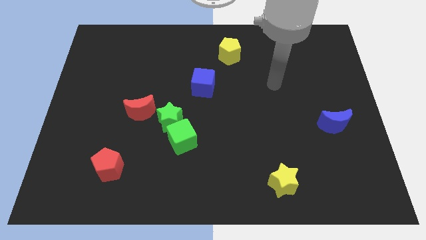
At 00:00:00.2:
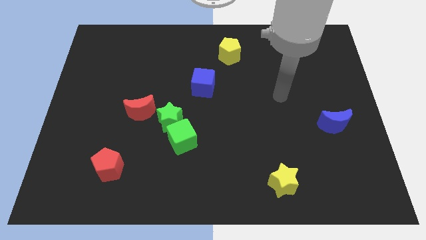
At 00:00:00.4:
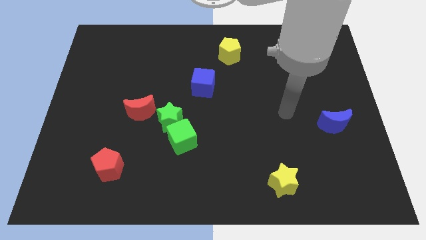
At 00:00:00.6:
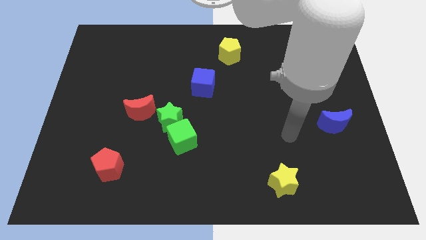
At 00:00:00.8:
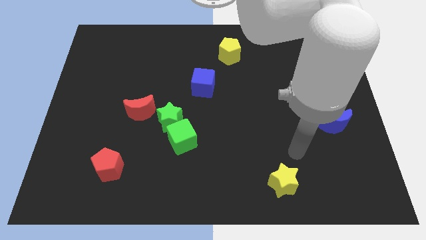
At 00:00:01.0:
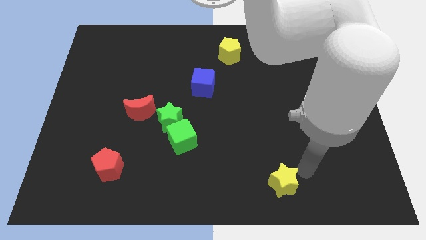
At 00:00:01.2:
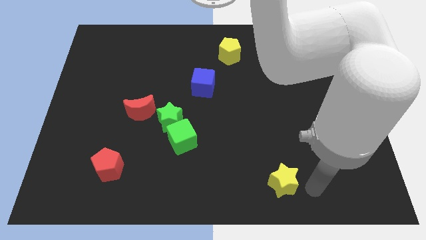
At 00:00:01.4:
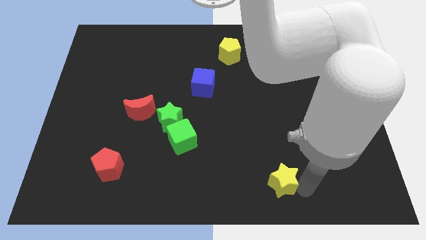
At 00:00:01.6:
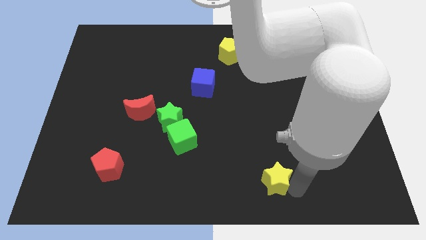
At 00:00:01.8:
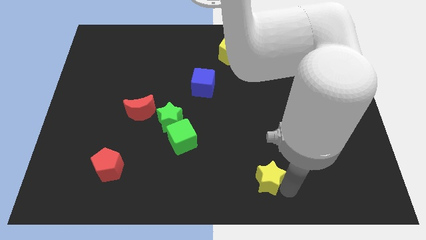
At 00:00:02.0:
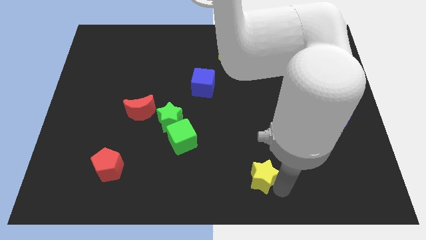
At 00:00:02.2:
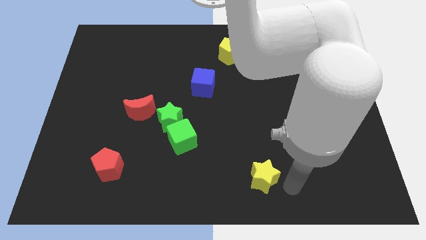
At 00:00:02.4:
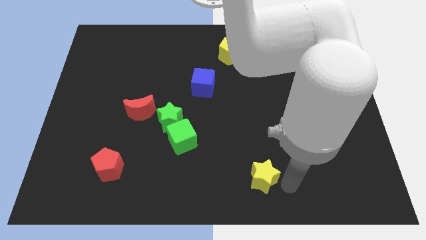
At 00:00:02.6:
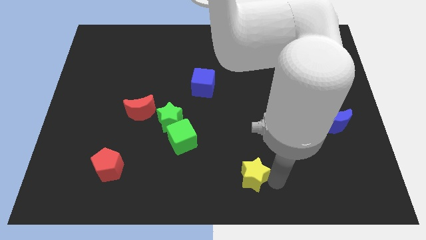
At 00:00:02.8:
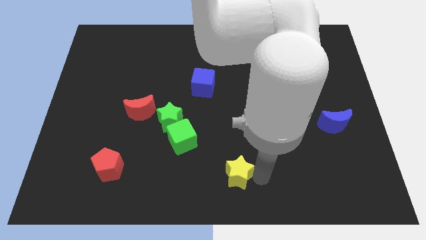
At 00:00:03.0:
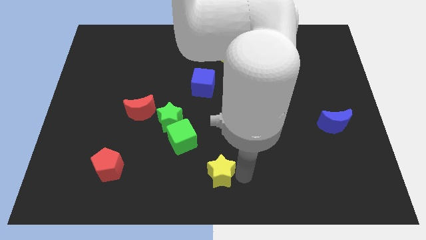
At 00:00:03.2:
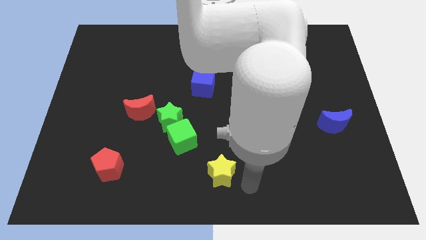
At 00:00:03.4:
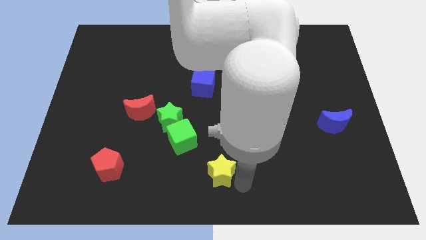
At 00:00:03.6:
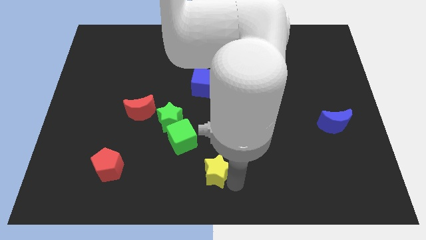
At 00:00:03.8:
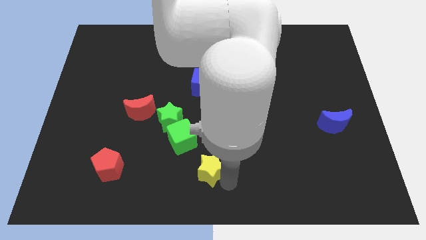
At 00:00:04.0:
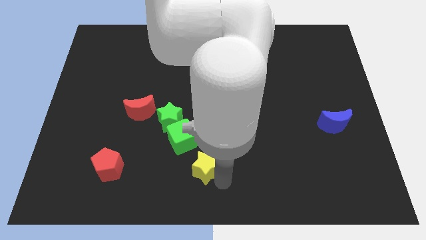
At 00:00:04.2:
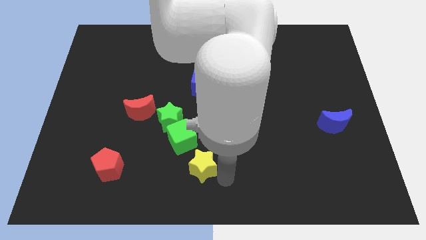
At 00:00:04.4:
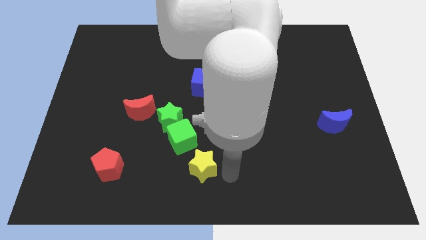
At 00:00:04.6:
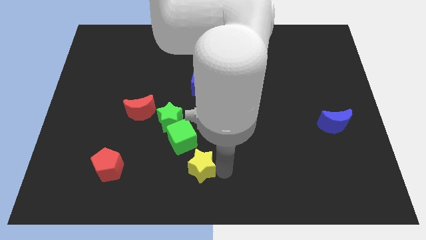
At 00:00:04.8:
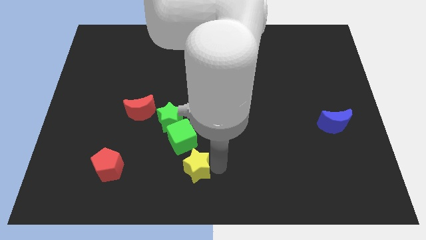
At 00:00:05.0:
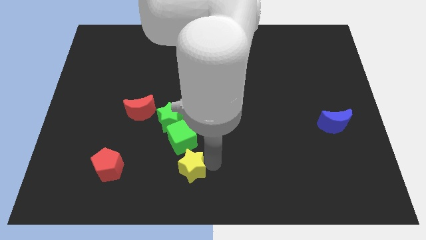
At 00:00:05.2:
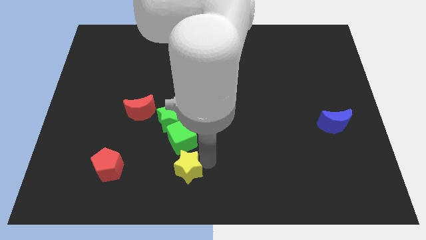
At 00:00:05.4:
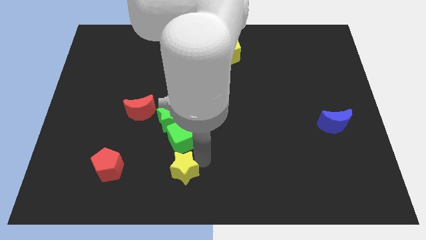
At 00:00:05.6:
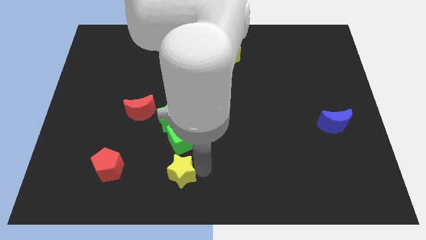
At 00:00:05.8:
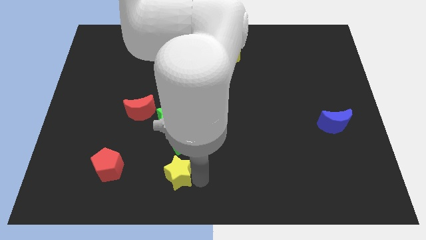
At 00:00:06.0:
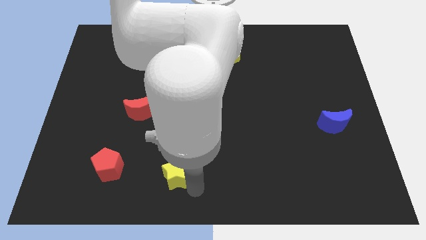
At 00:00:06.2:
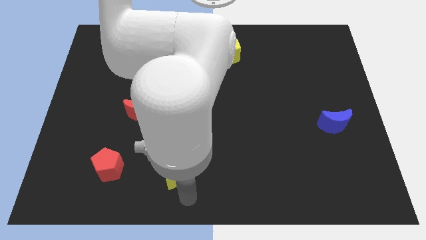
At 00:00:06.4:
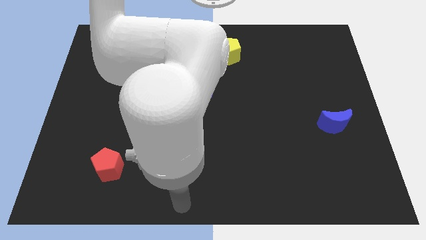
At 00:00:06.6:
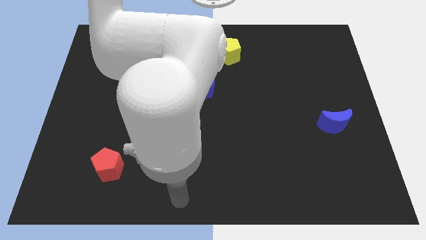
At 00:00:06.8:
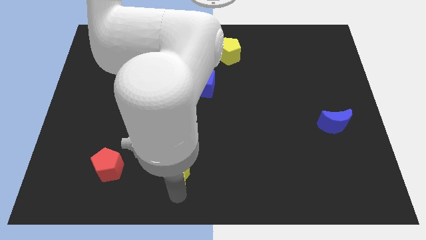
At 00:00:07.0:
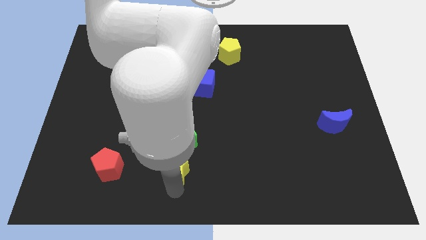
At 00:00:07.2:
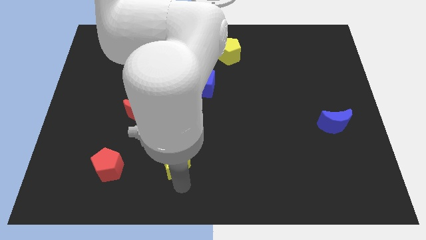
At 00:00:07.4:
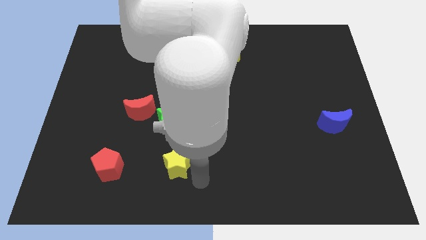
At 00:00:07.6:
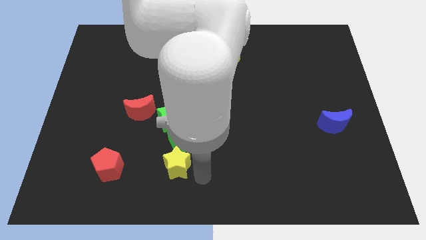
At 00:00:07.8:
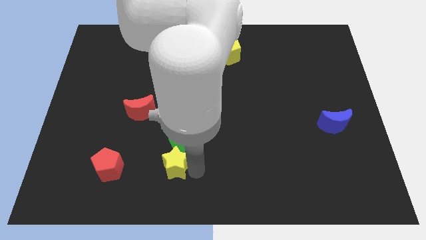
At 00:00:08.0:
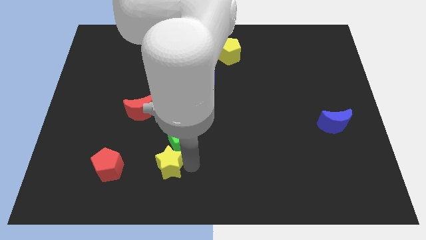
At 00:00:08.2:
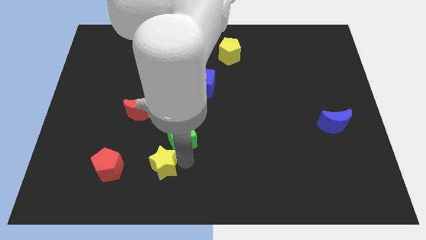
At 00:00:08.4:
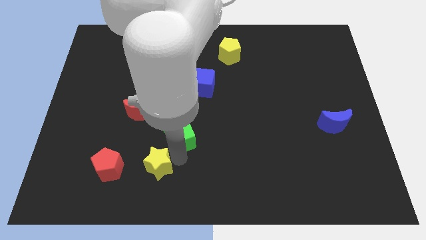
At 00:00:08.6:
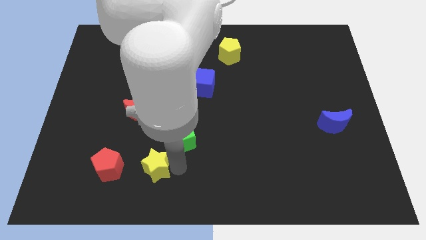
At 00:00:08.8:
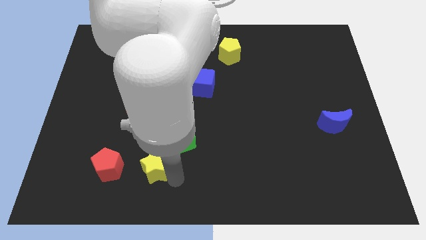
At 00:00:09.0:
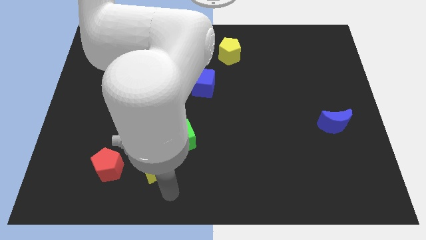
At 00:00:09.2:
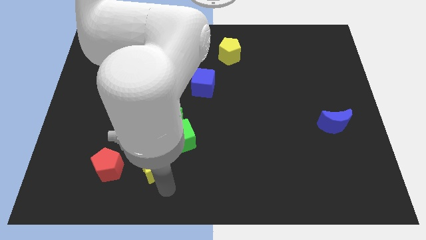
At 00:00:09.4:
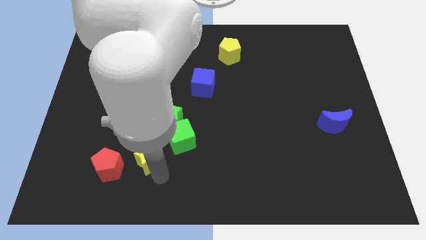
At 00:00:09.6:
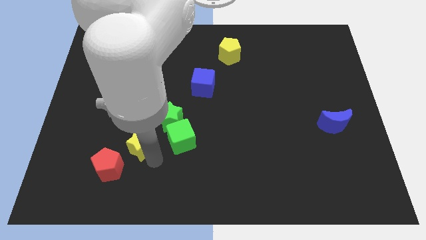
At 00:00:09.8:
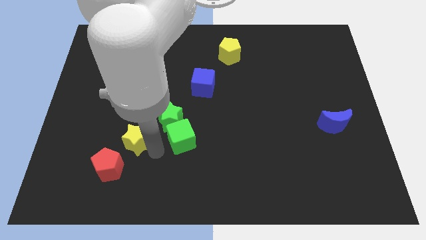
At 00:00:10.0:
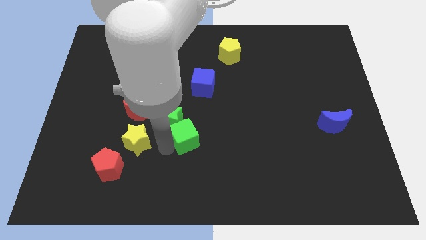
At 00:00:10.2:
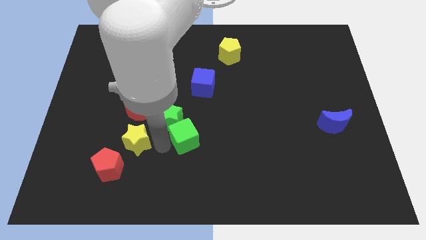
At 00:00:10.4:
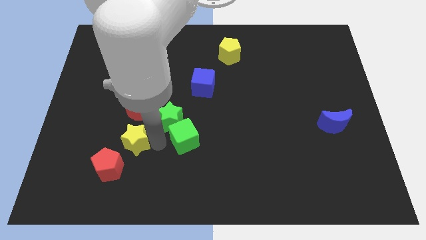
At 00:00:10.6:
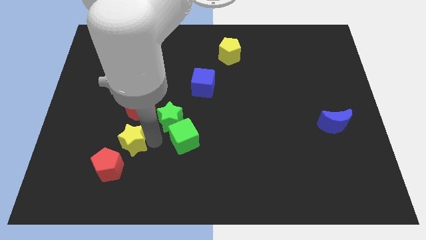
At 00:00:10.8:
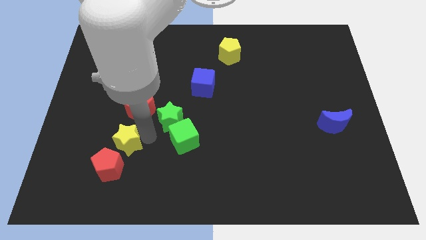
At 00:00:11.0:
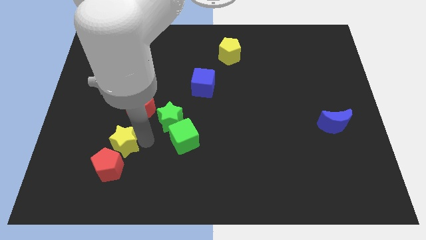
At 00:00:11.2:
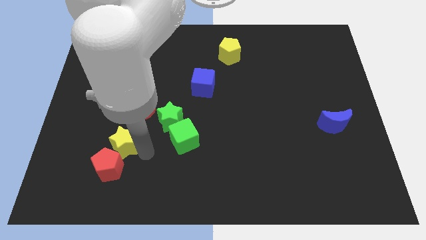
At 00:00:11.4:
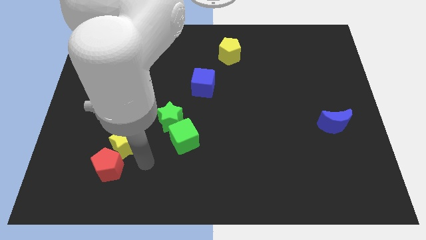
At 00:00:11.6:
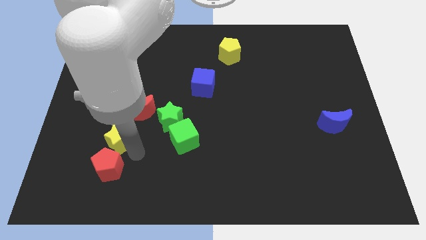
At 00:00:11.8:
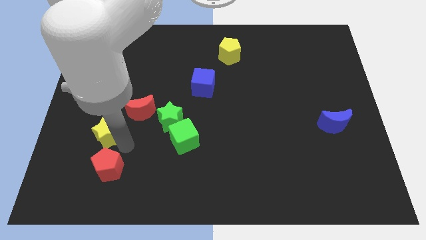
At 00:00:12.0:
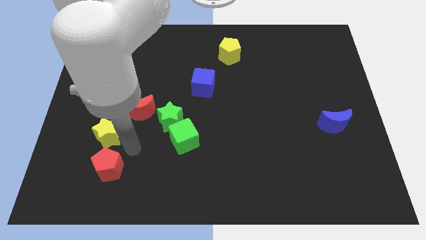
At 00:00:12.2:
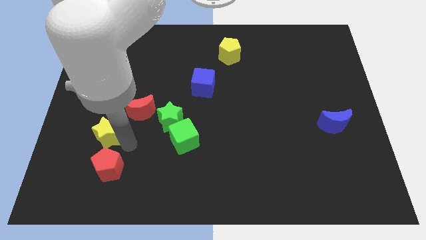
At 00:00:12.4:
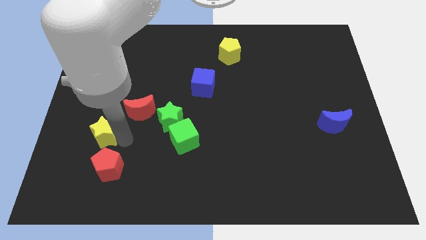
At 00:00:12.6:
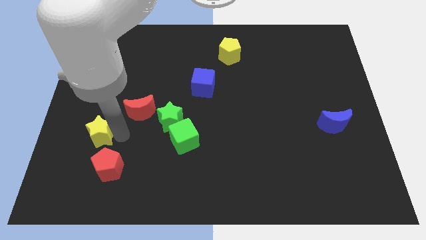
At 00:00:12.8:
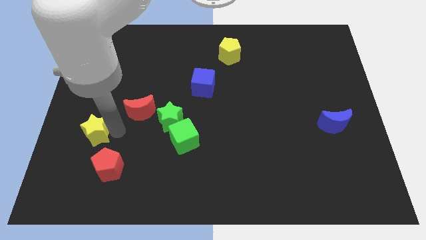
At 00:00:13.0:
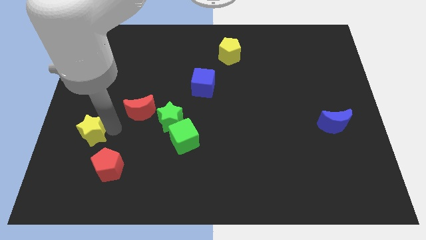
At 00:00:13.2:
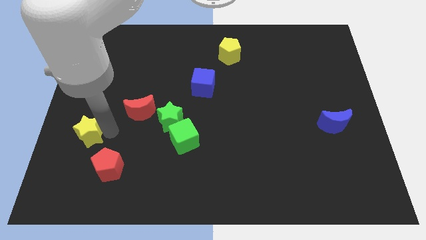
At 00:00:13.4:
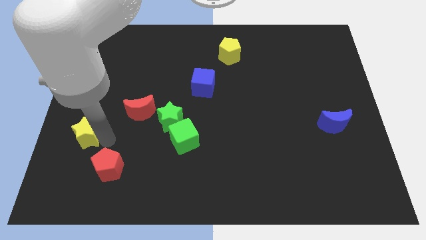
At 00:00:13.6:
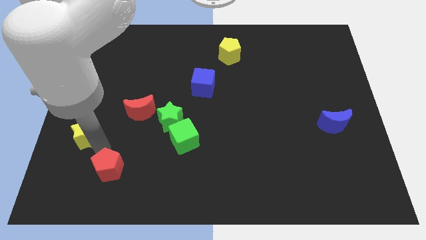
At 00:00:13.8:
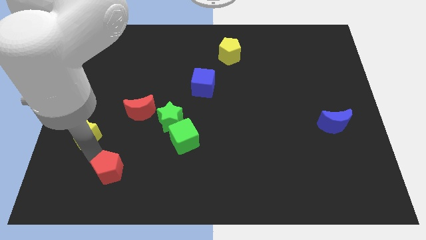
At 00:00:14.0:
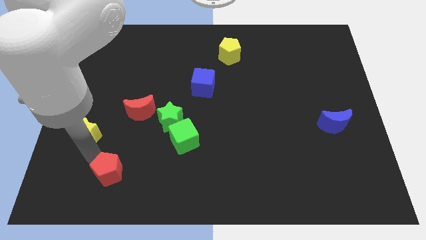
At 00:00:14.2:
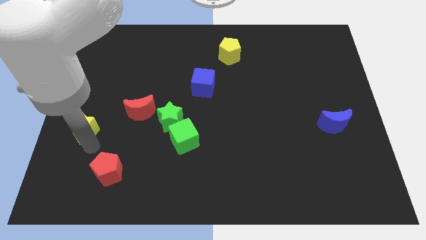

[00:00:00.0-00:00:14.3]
slide the yellow star to the center left

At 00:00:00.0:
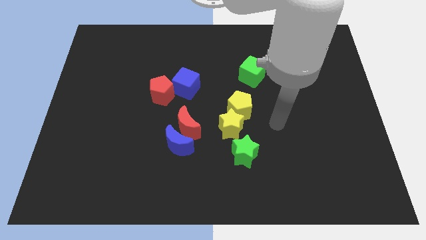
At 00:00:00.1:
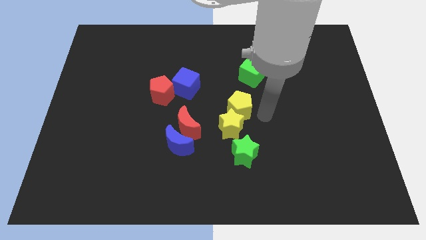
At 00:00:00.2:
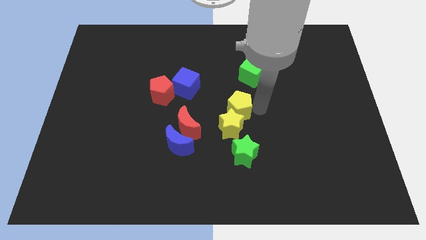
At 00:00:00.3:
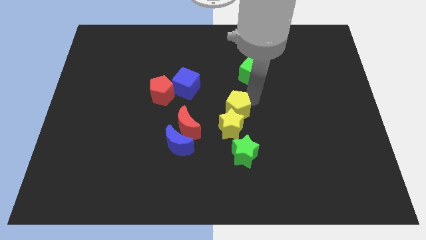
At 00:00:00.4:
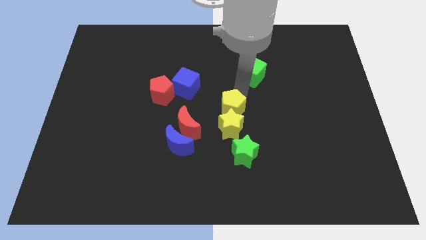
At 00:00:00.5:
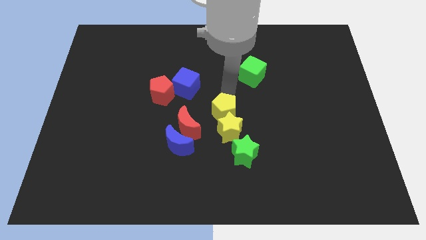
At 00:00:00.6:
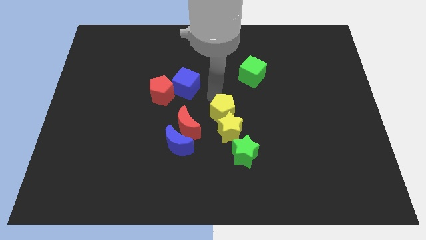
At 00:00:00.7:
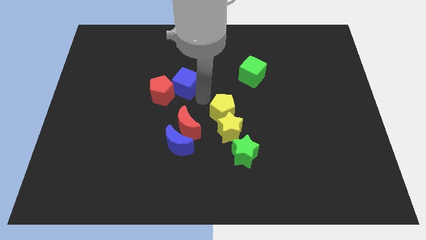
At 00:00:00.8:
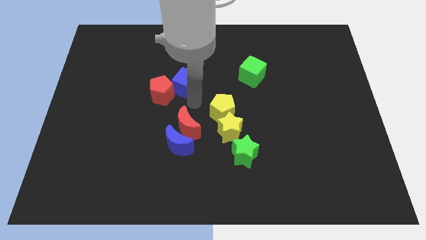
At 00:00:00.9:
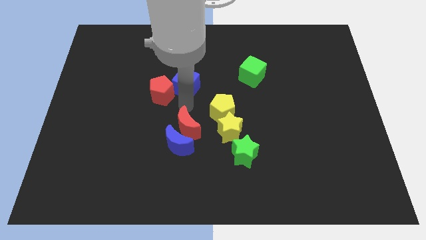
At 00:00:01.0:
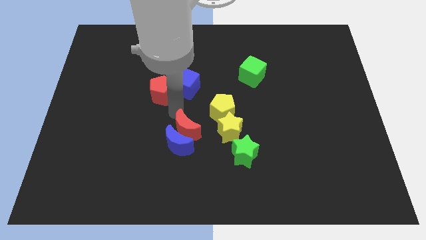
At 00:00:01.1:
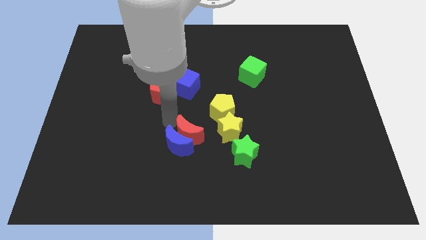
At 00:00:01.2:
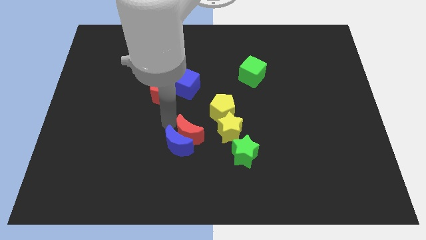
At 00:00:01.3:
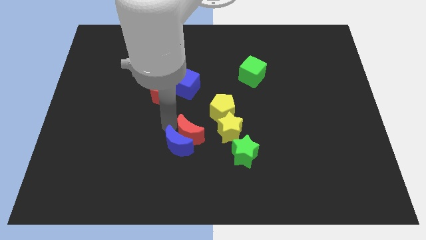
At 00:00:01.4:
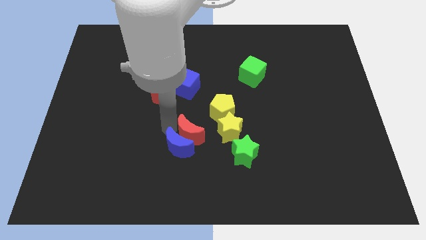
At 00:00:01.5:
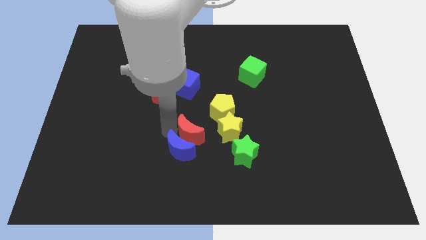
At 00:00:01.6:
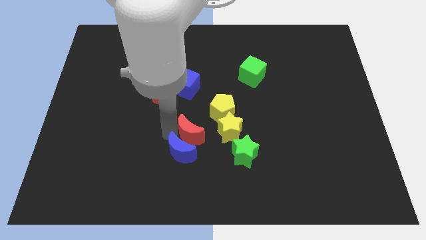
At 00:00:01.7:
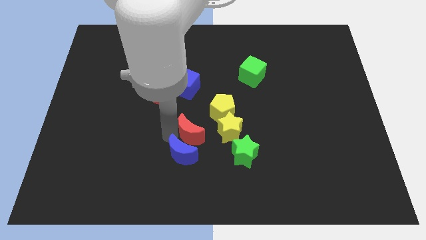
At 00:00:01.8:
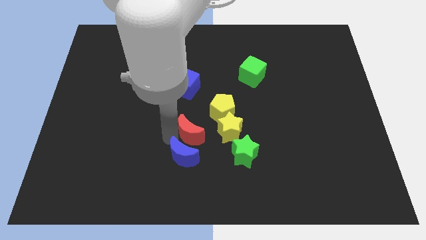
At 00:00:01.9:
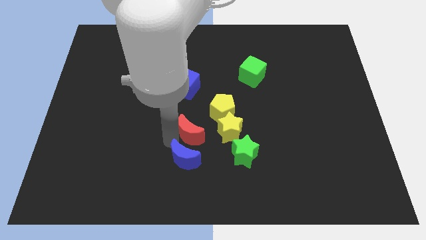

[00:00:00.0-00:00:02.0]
put the blue moon to the bottom side
